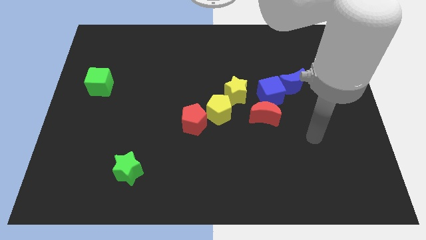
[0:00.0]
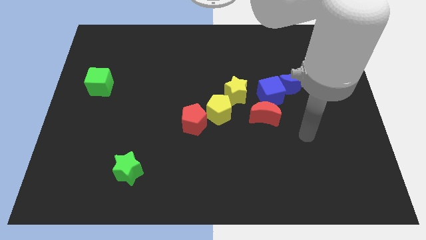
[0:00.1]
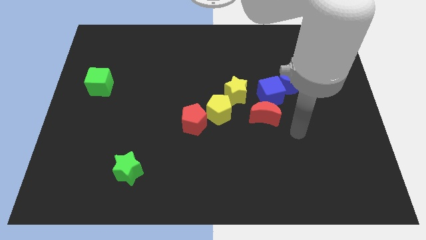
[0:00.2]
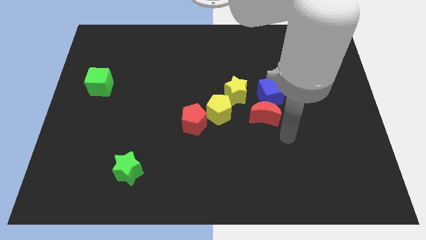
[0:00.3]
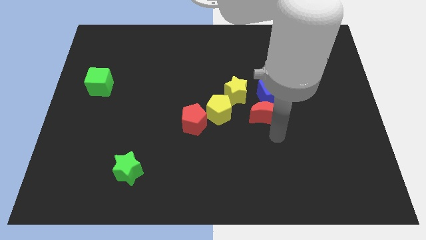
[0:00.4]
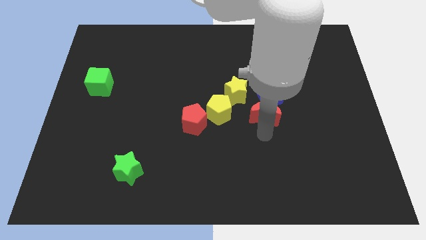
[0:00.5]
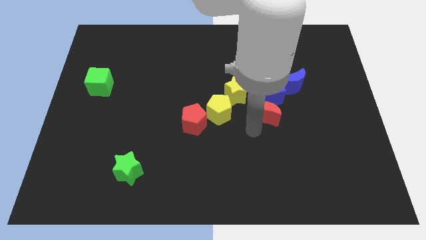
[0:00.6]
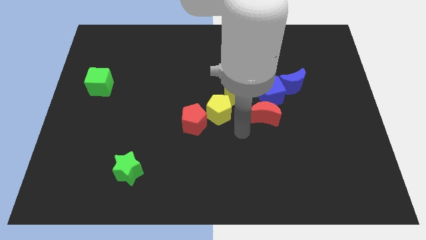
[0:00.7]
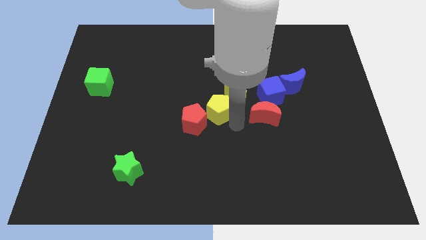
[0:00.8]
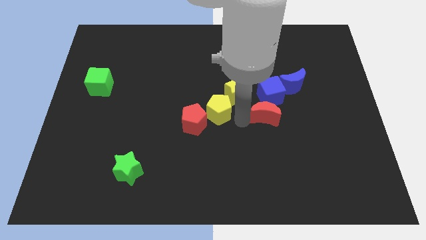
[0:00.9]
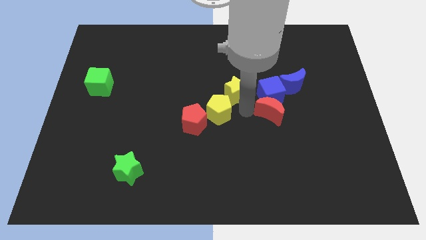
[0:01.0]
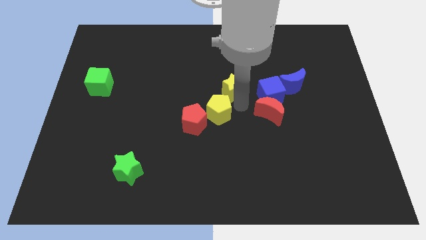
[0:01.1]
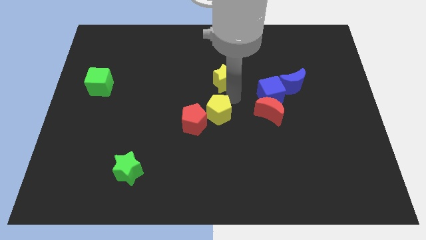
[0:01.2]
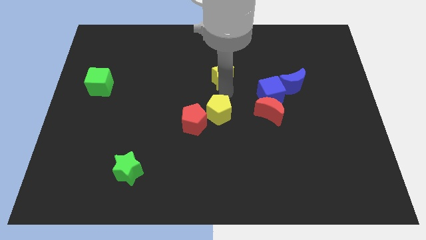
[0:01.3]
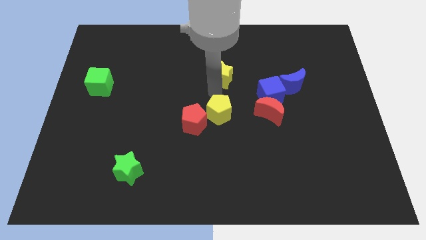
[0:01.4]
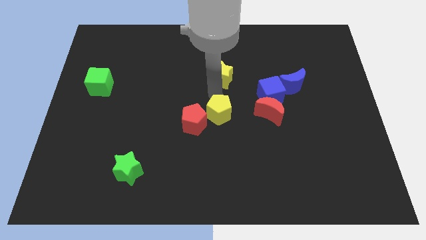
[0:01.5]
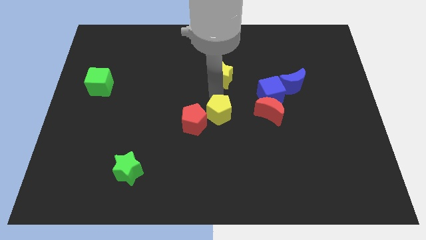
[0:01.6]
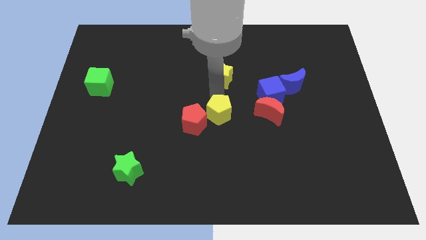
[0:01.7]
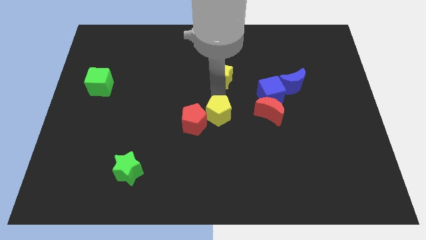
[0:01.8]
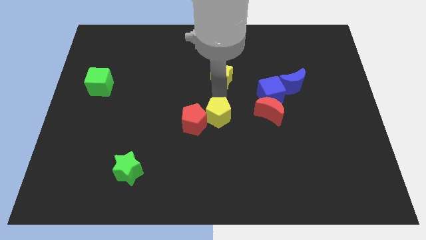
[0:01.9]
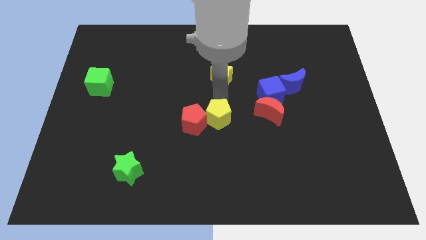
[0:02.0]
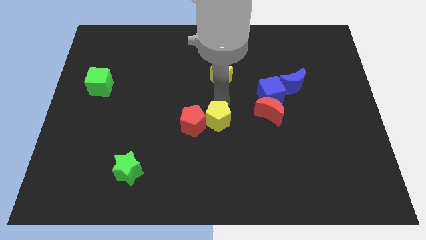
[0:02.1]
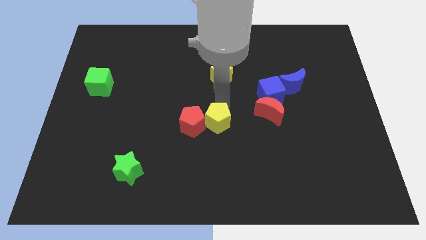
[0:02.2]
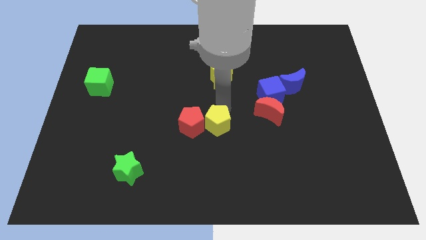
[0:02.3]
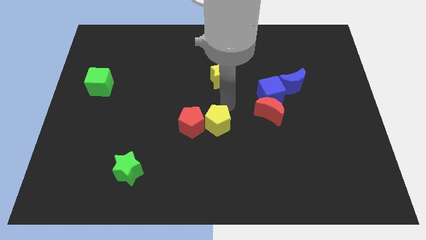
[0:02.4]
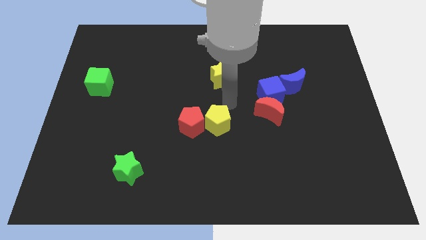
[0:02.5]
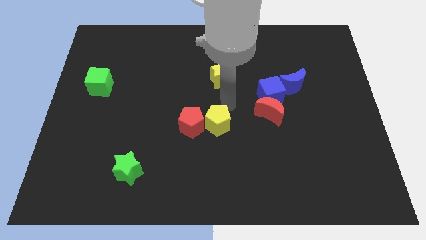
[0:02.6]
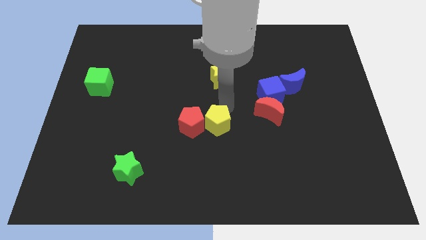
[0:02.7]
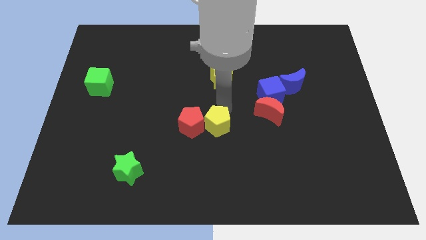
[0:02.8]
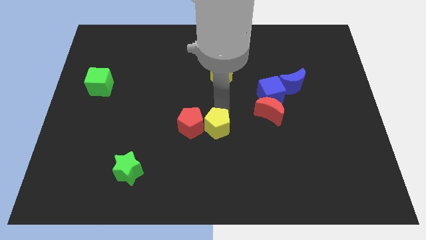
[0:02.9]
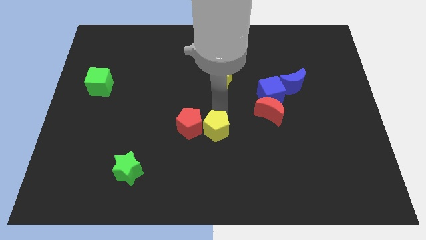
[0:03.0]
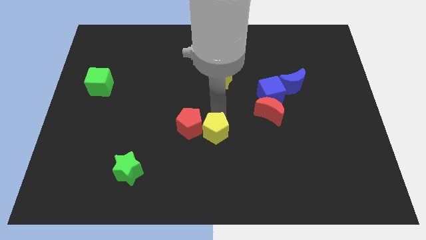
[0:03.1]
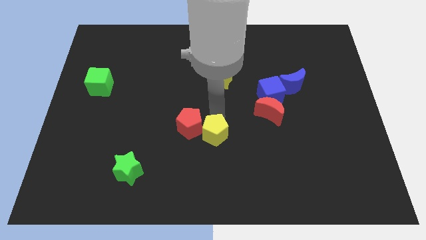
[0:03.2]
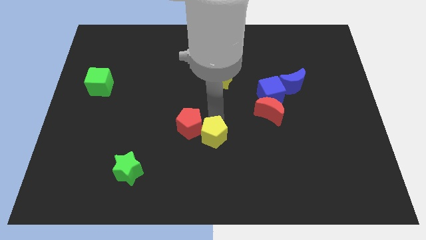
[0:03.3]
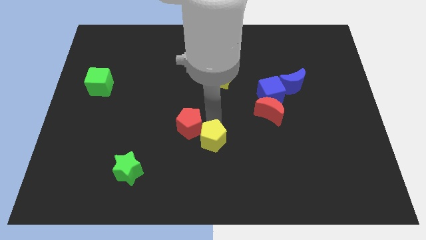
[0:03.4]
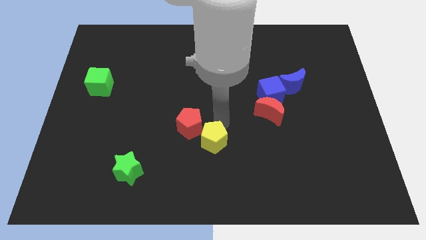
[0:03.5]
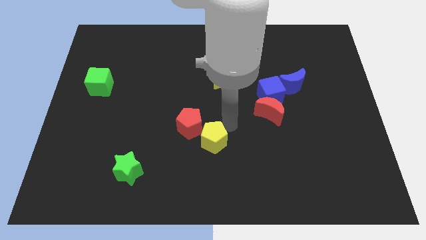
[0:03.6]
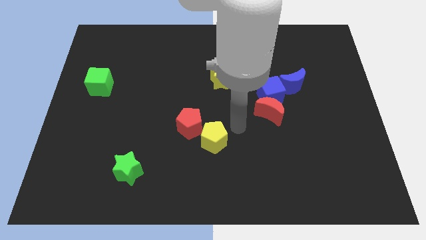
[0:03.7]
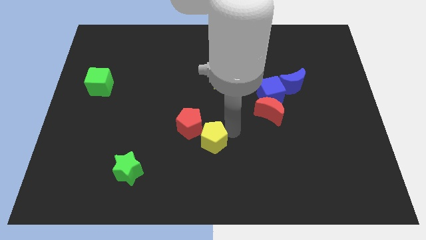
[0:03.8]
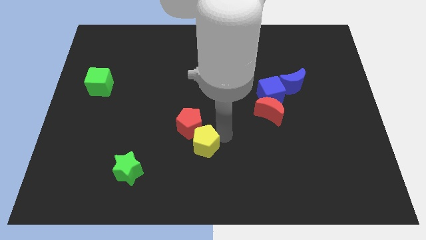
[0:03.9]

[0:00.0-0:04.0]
slightly slide the yellow pentagon downwards and to the left diagonally

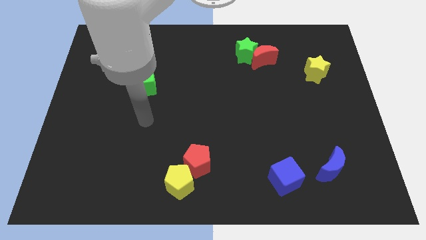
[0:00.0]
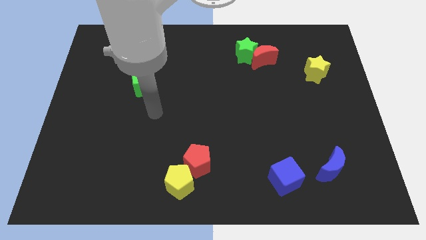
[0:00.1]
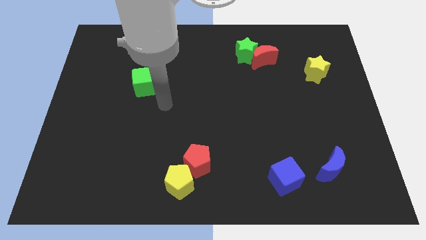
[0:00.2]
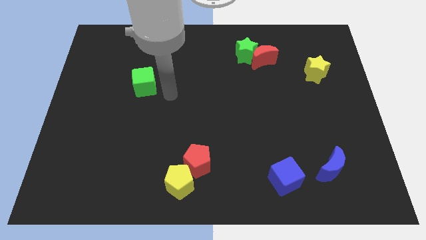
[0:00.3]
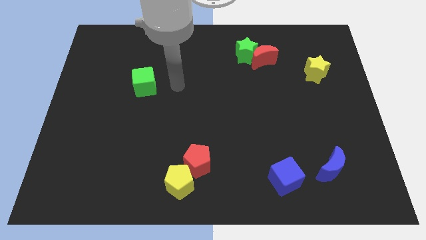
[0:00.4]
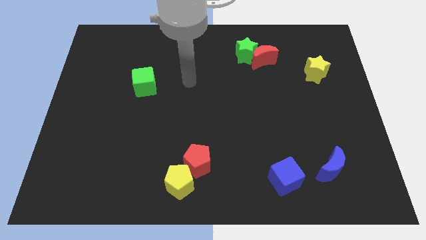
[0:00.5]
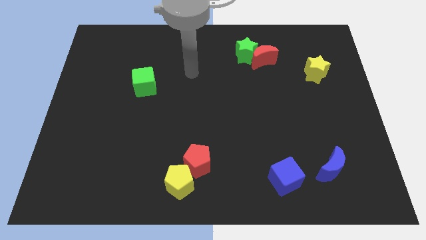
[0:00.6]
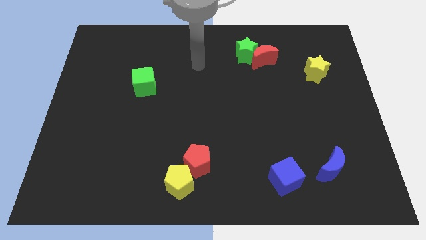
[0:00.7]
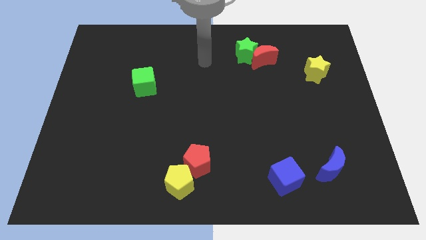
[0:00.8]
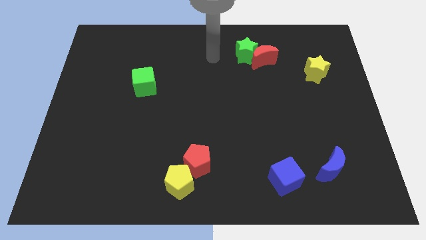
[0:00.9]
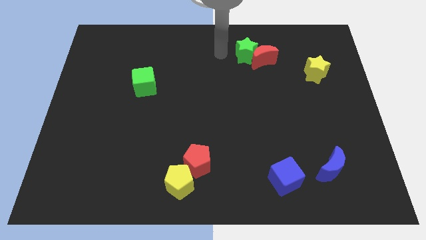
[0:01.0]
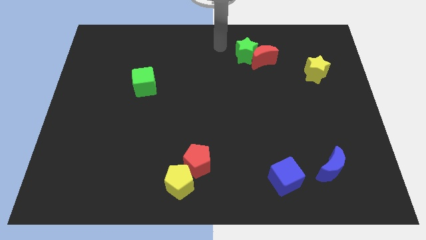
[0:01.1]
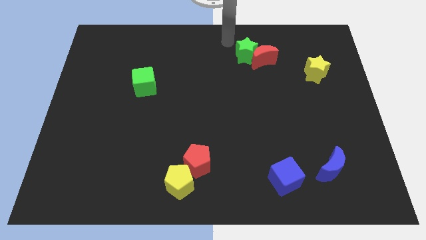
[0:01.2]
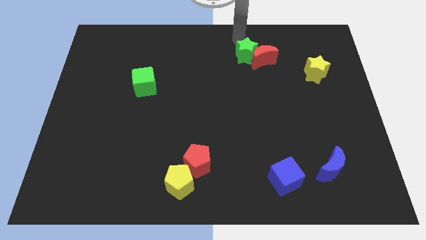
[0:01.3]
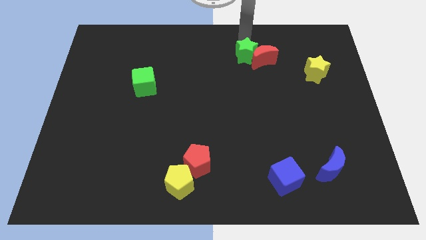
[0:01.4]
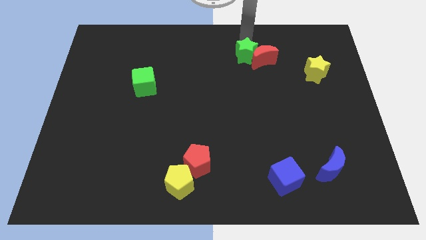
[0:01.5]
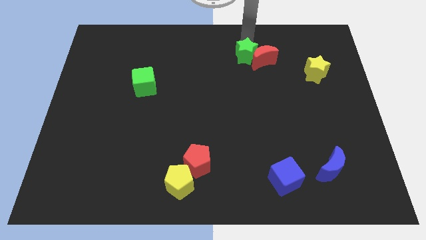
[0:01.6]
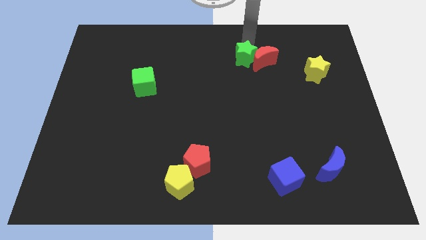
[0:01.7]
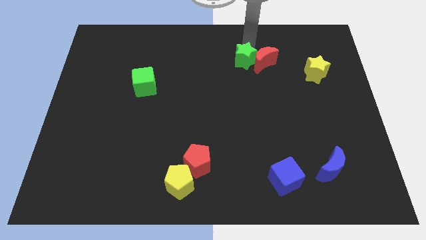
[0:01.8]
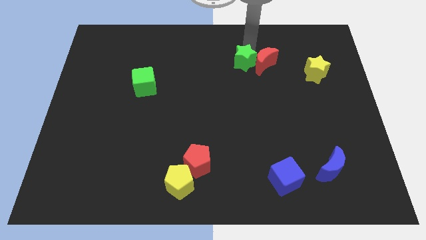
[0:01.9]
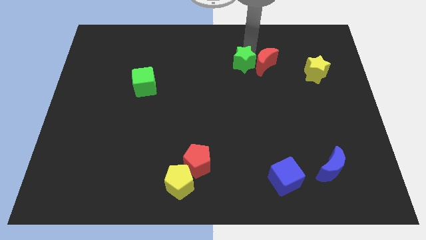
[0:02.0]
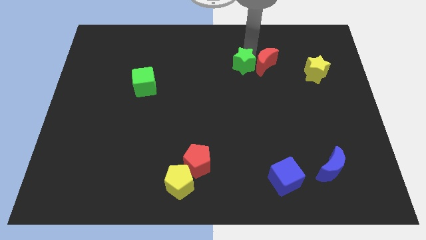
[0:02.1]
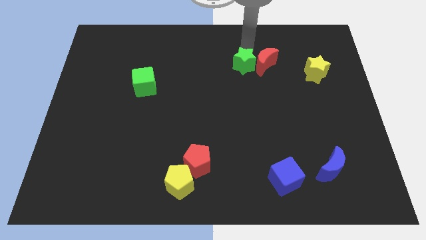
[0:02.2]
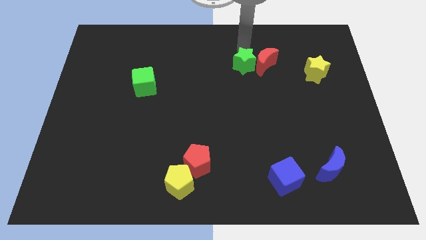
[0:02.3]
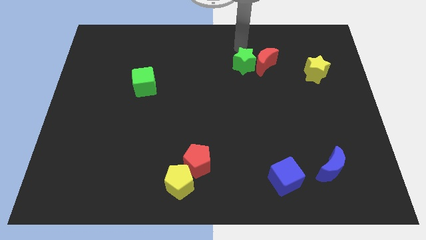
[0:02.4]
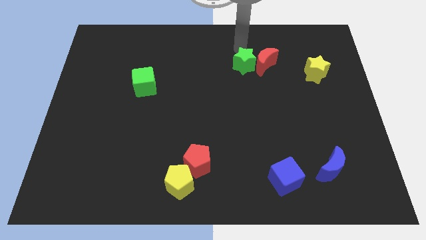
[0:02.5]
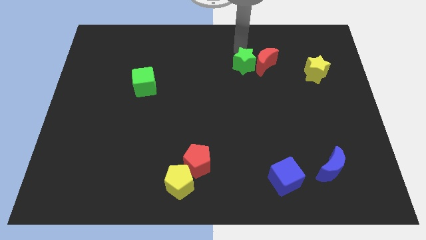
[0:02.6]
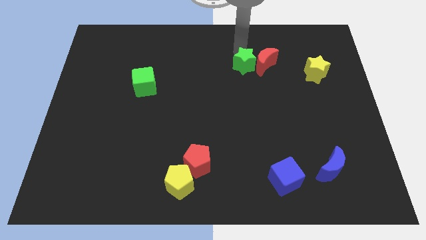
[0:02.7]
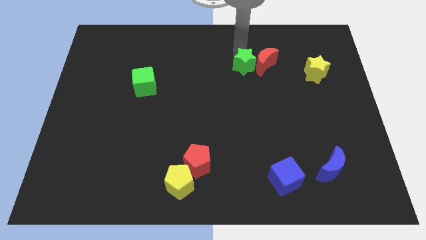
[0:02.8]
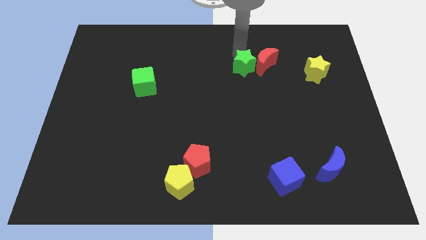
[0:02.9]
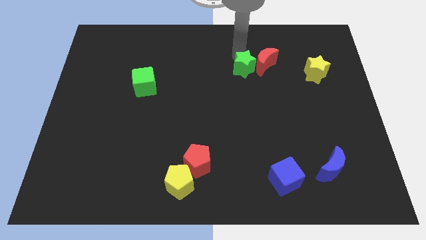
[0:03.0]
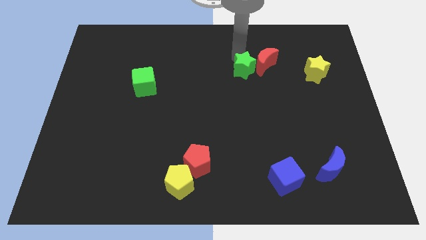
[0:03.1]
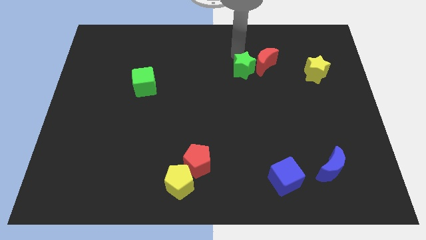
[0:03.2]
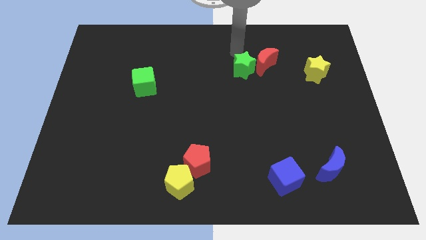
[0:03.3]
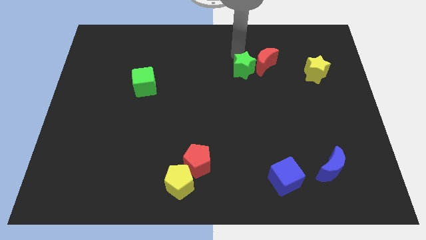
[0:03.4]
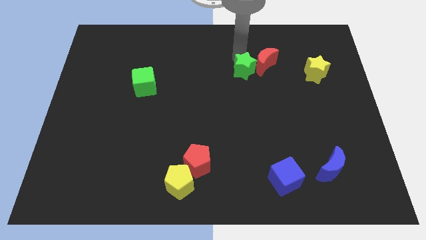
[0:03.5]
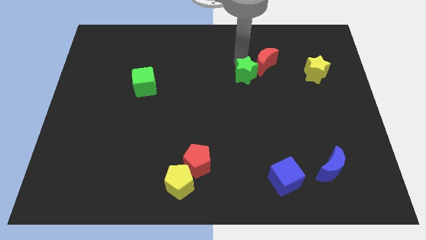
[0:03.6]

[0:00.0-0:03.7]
slightly slide the green star down

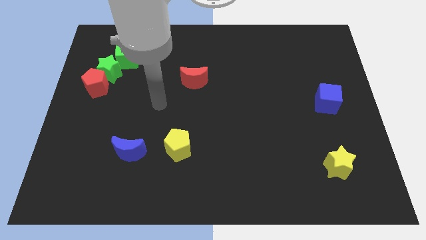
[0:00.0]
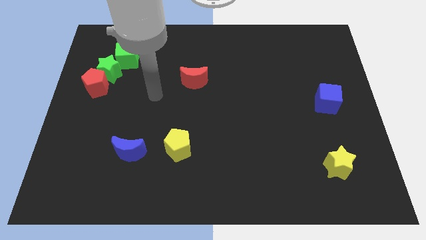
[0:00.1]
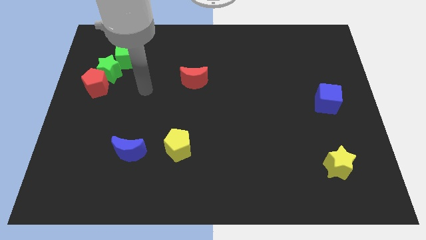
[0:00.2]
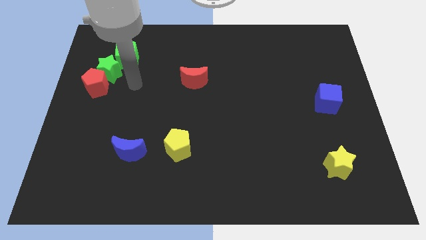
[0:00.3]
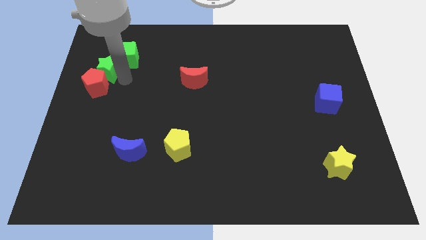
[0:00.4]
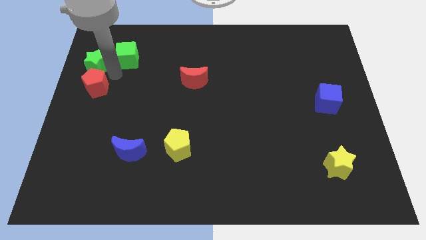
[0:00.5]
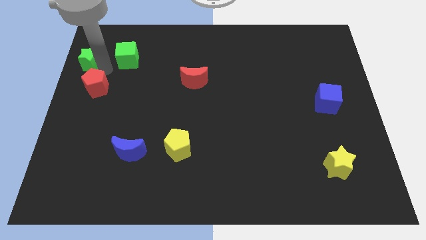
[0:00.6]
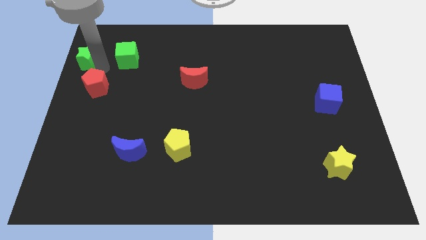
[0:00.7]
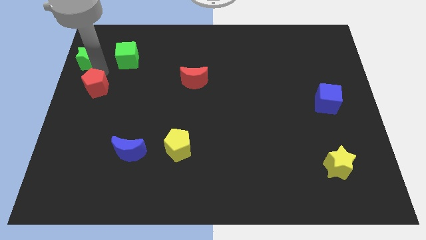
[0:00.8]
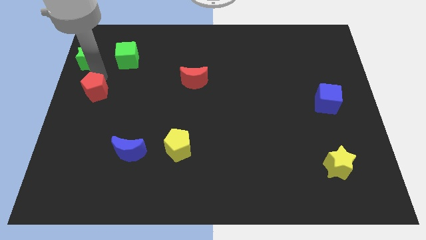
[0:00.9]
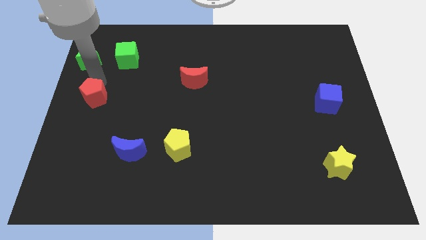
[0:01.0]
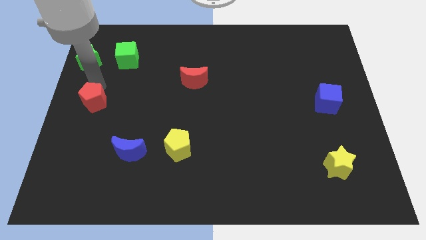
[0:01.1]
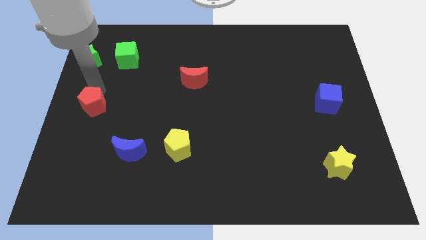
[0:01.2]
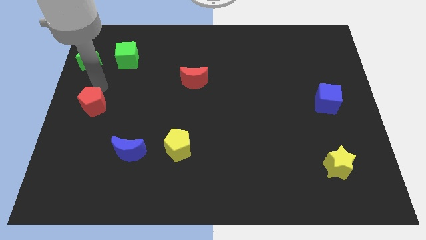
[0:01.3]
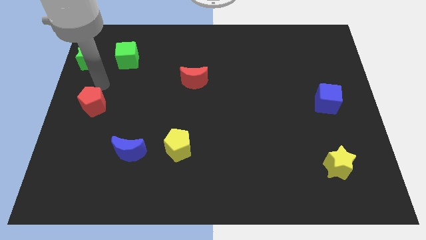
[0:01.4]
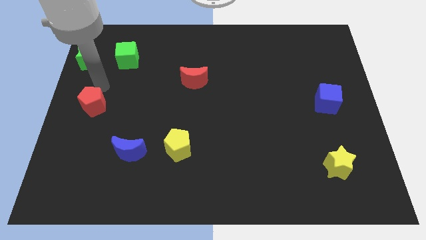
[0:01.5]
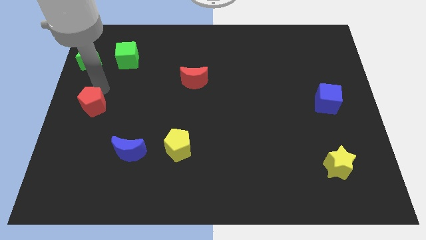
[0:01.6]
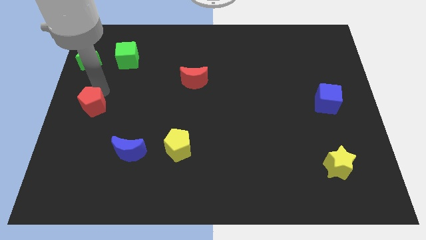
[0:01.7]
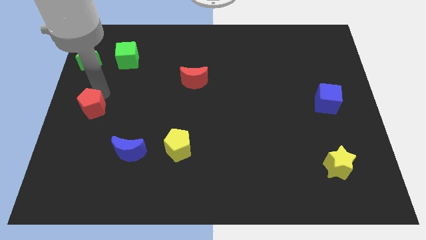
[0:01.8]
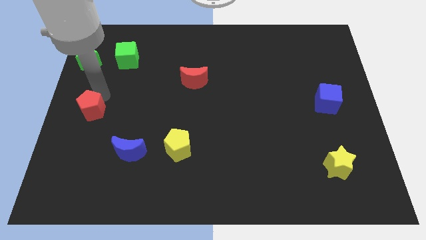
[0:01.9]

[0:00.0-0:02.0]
slide the red pentagon slightly downwards
